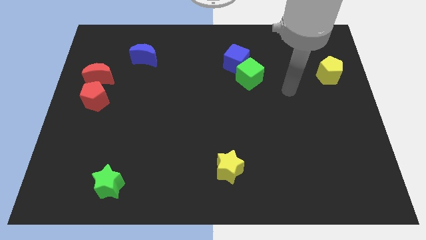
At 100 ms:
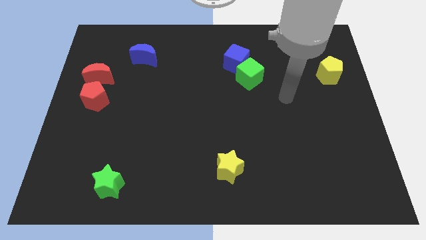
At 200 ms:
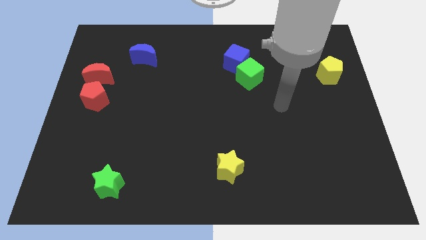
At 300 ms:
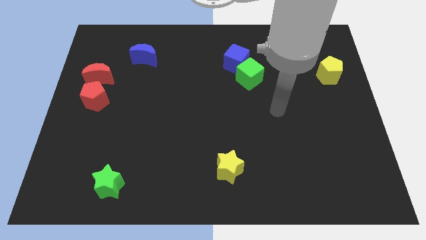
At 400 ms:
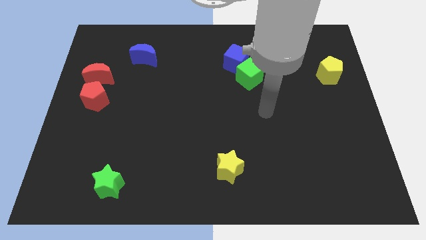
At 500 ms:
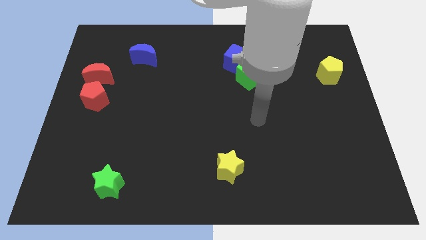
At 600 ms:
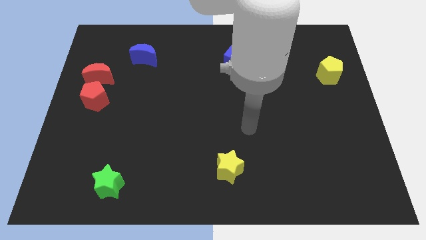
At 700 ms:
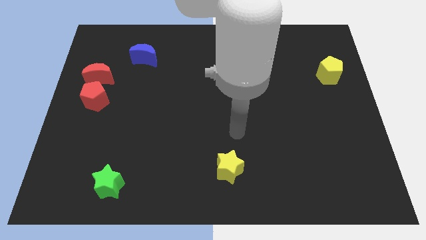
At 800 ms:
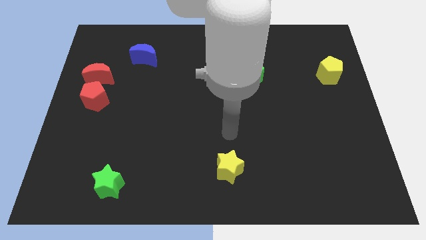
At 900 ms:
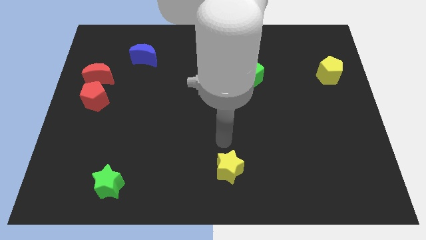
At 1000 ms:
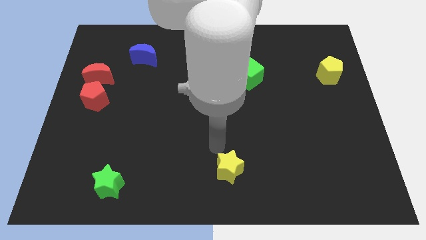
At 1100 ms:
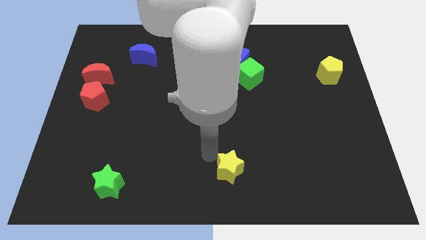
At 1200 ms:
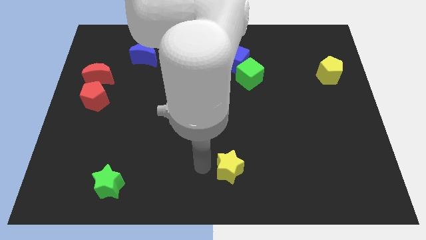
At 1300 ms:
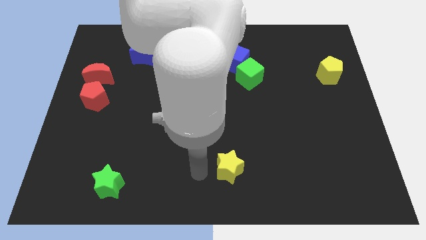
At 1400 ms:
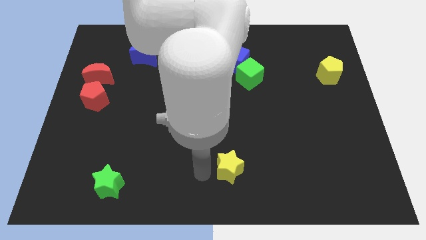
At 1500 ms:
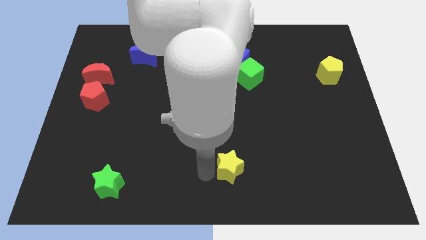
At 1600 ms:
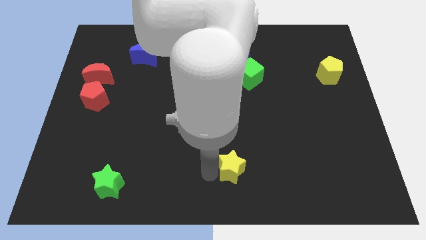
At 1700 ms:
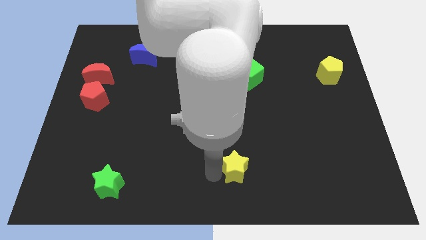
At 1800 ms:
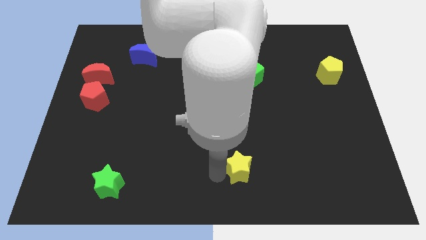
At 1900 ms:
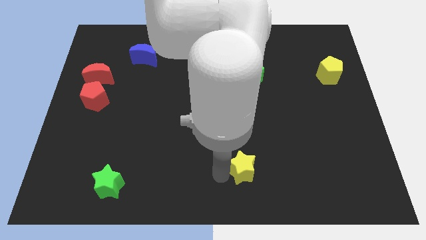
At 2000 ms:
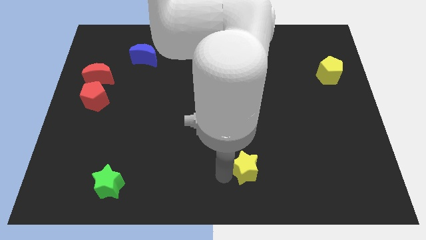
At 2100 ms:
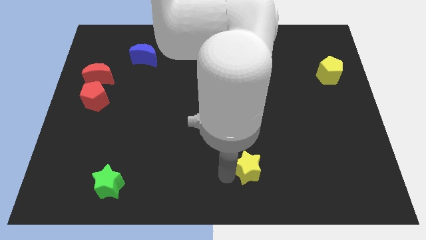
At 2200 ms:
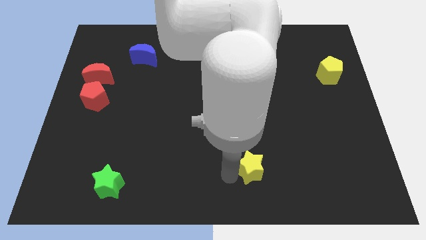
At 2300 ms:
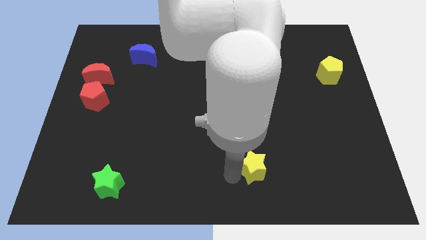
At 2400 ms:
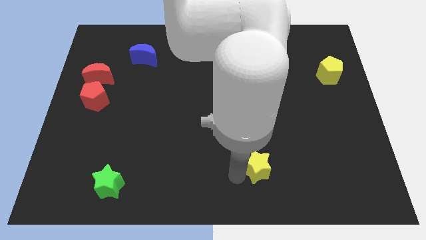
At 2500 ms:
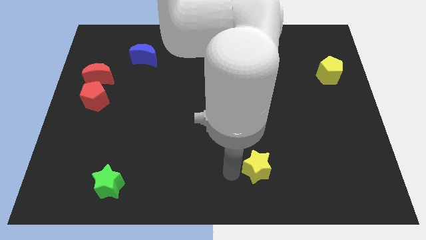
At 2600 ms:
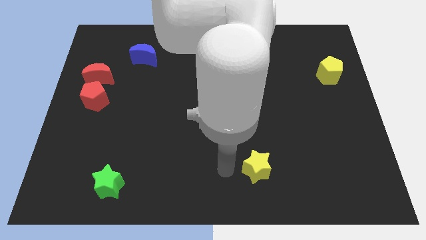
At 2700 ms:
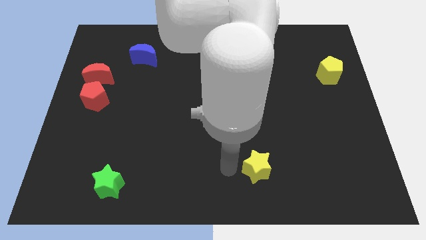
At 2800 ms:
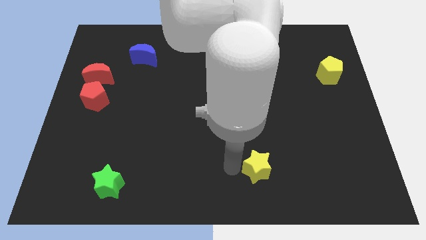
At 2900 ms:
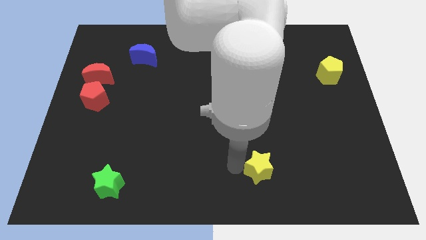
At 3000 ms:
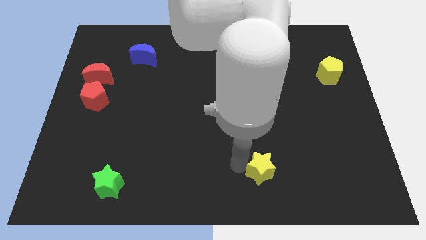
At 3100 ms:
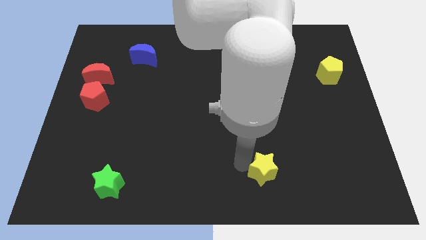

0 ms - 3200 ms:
slightly slide the yellow star to the right

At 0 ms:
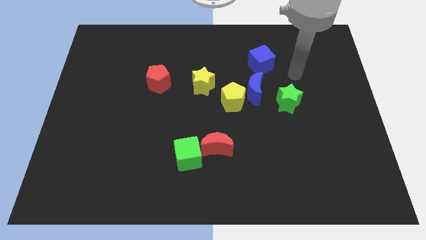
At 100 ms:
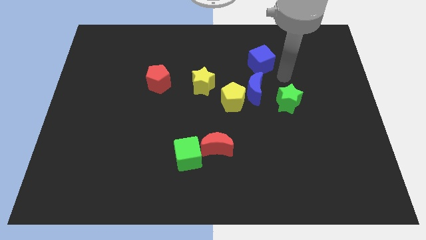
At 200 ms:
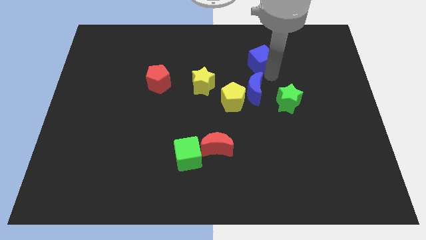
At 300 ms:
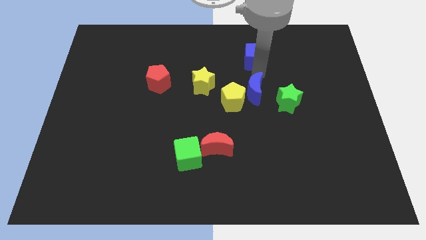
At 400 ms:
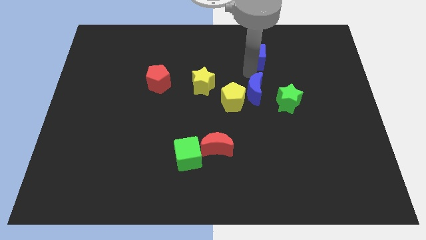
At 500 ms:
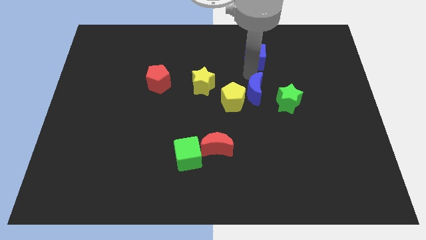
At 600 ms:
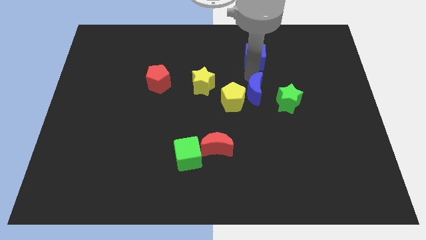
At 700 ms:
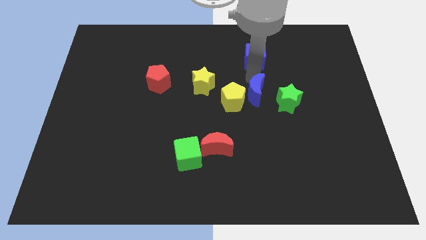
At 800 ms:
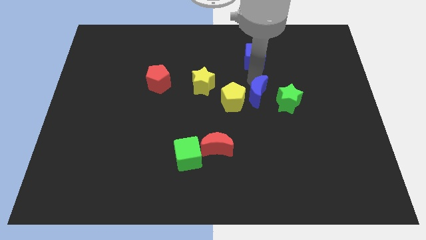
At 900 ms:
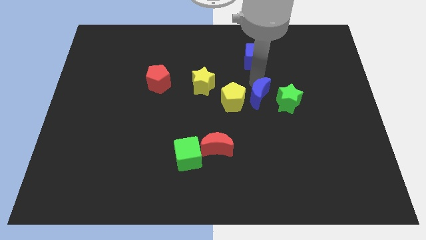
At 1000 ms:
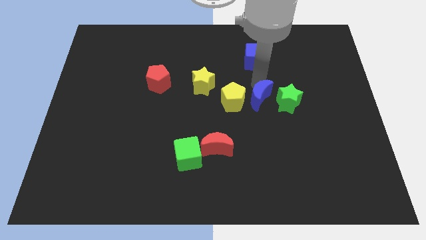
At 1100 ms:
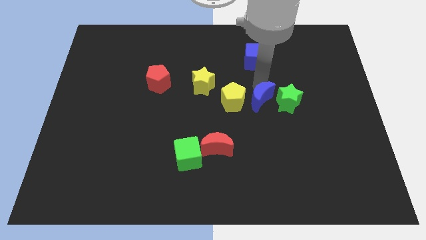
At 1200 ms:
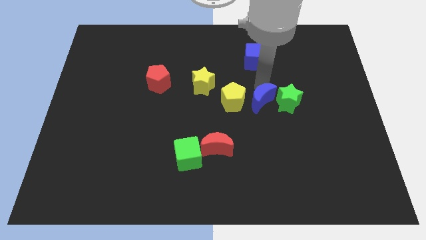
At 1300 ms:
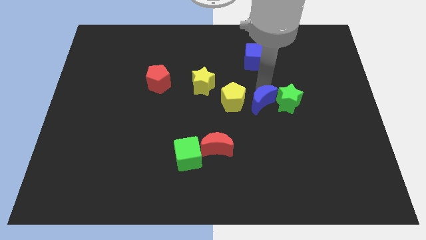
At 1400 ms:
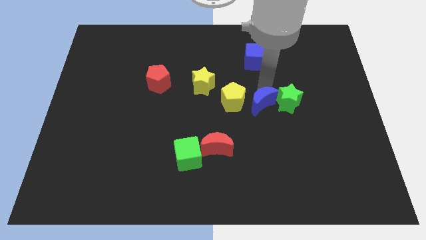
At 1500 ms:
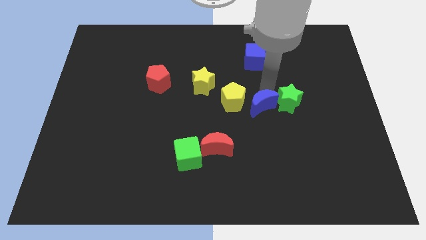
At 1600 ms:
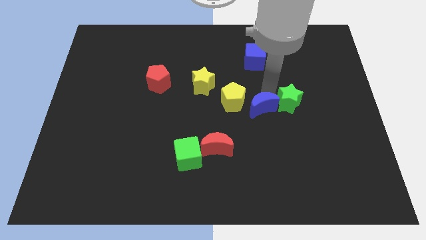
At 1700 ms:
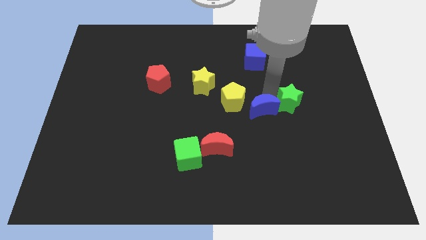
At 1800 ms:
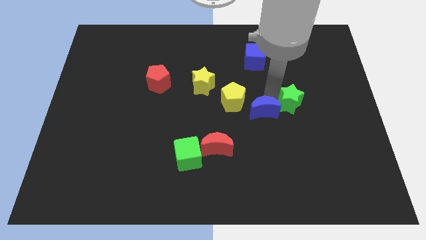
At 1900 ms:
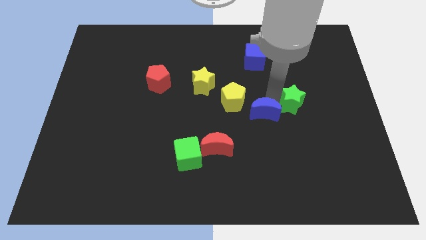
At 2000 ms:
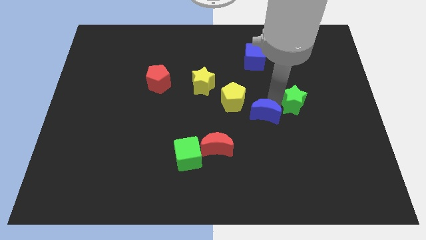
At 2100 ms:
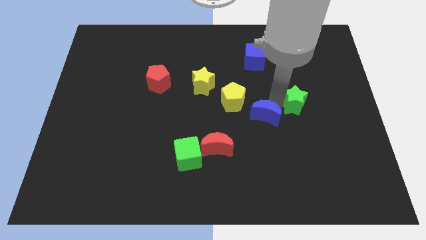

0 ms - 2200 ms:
move the blue moon a little down

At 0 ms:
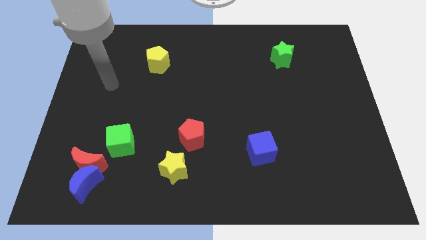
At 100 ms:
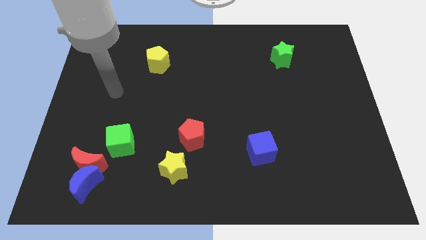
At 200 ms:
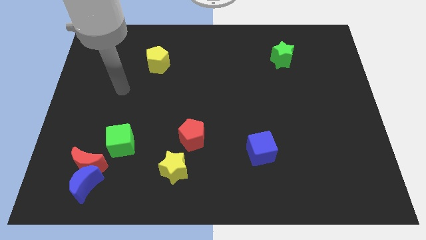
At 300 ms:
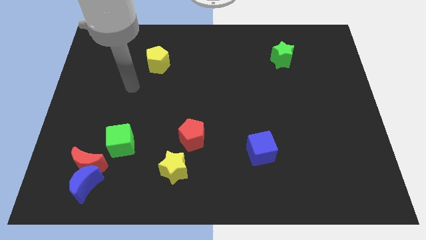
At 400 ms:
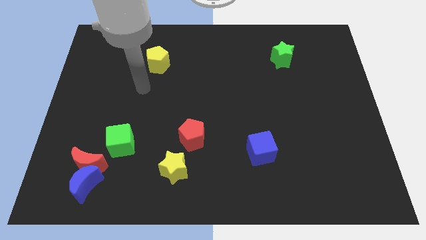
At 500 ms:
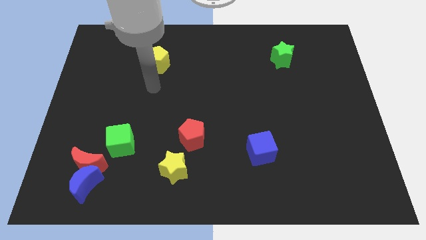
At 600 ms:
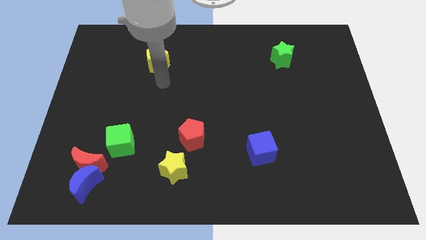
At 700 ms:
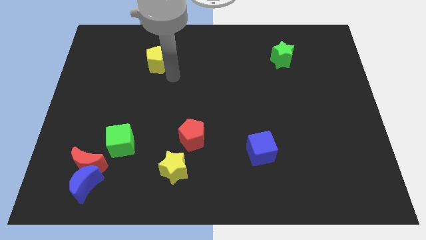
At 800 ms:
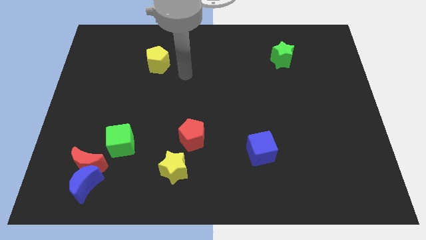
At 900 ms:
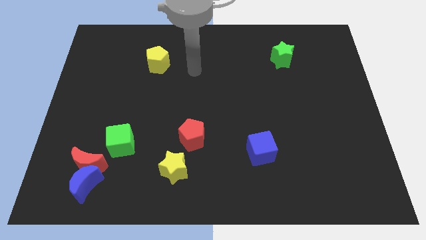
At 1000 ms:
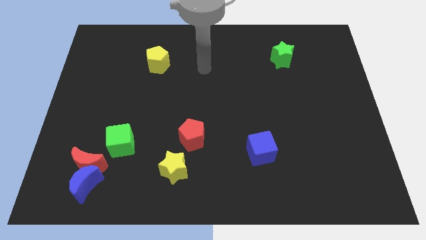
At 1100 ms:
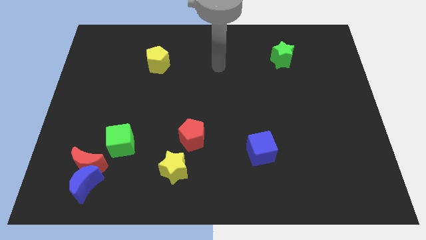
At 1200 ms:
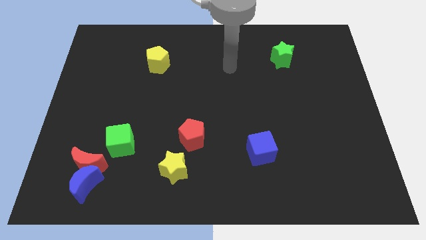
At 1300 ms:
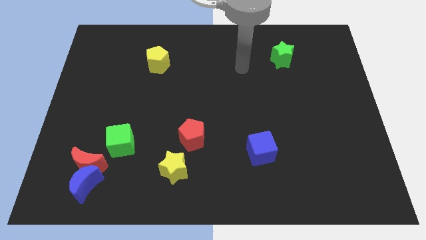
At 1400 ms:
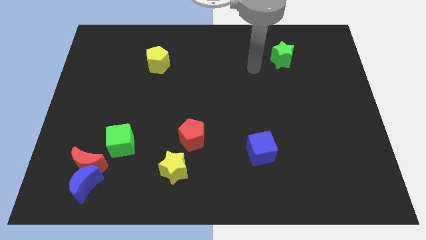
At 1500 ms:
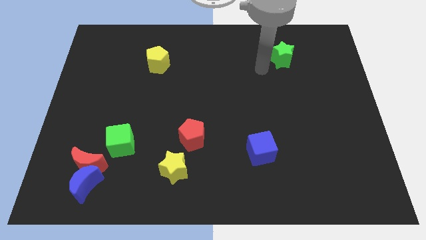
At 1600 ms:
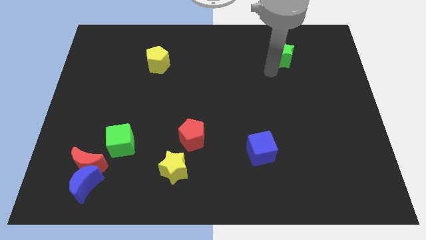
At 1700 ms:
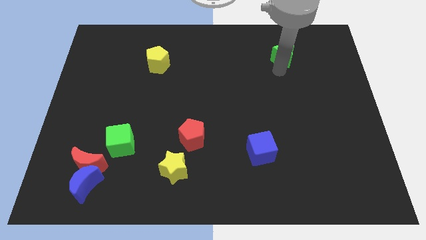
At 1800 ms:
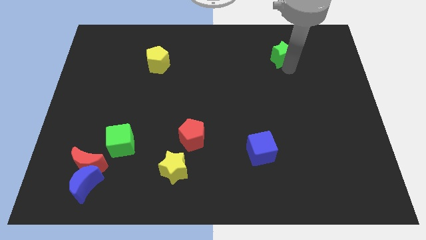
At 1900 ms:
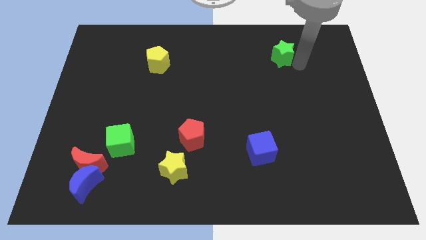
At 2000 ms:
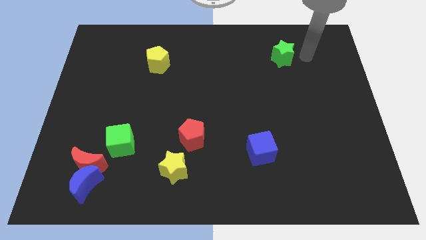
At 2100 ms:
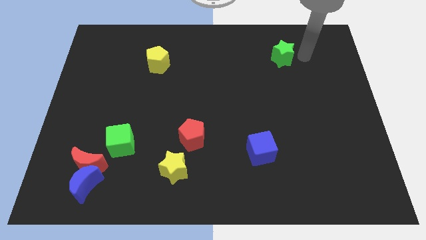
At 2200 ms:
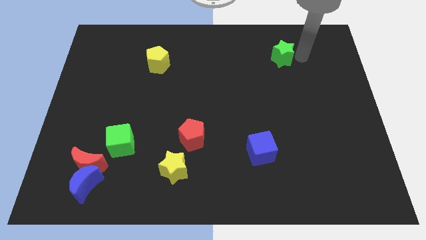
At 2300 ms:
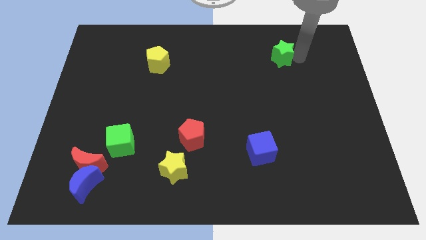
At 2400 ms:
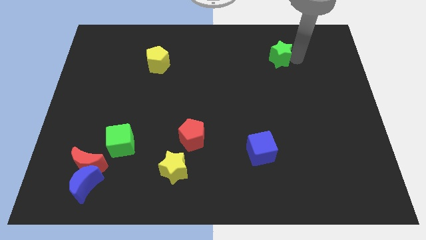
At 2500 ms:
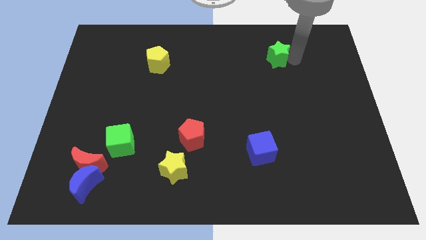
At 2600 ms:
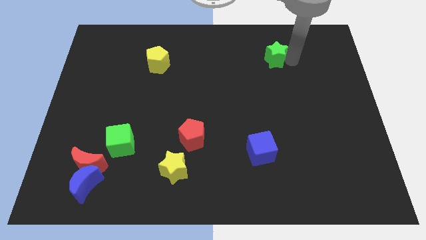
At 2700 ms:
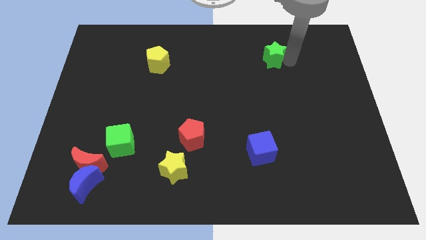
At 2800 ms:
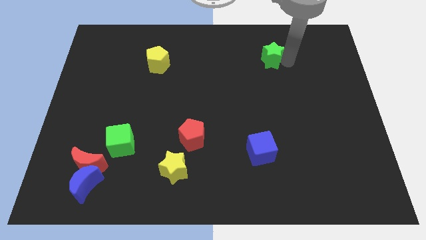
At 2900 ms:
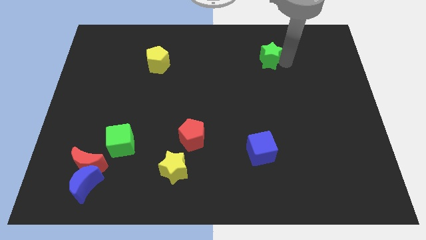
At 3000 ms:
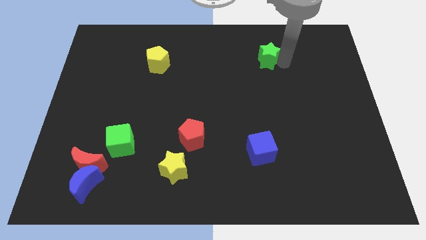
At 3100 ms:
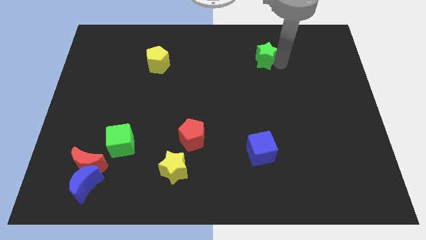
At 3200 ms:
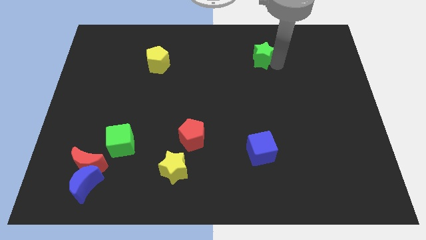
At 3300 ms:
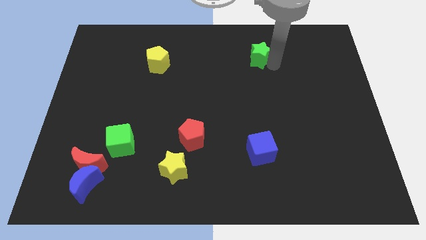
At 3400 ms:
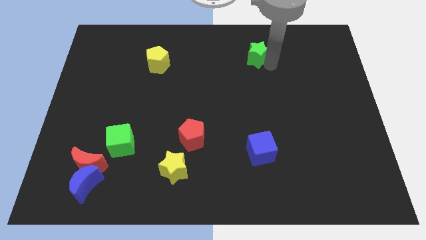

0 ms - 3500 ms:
push the green star left somewhat
